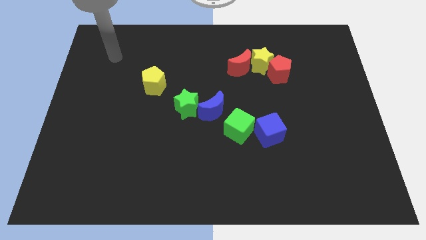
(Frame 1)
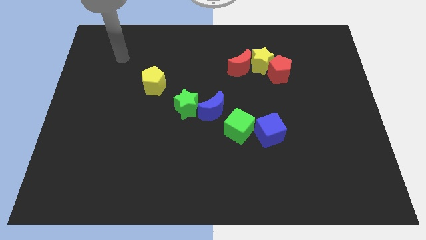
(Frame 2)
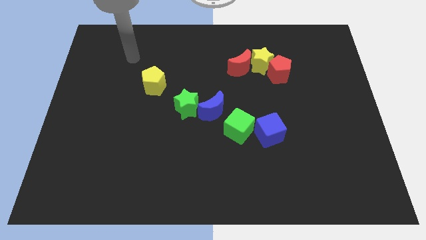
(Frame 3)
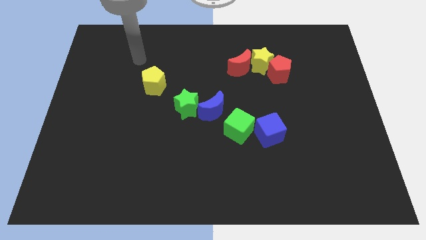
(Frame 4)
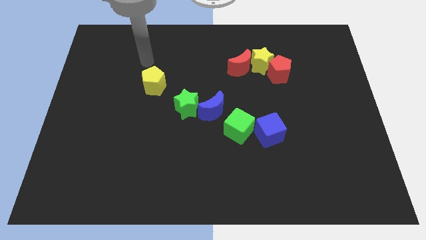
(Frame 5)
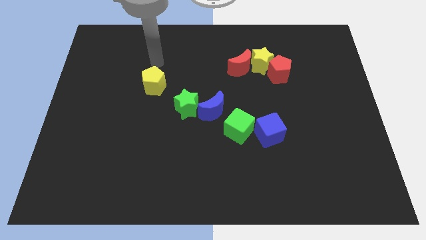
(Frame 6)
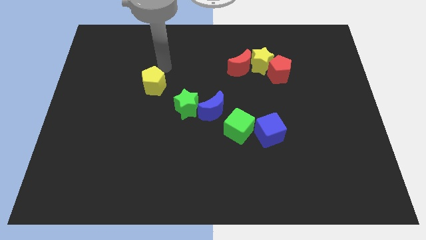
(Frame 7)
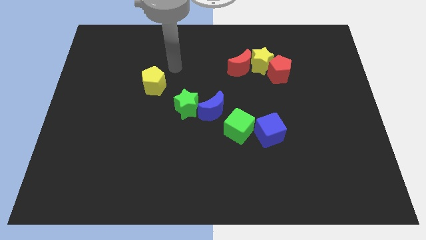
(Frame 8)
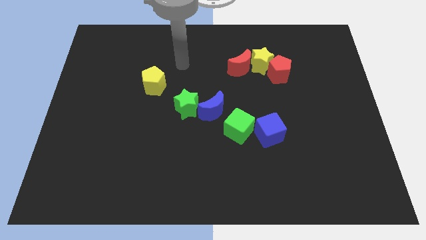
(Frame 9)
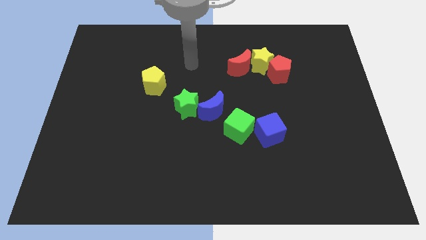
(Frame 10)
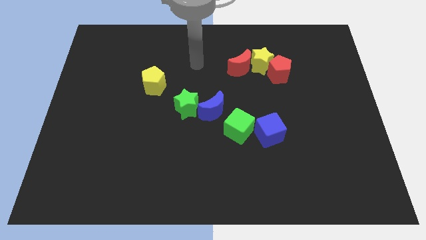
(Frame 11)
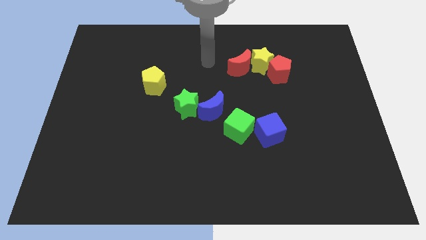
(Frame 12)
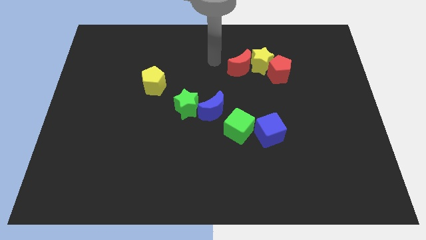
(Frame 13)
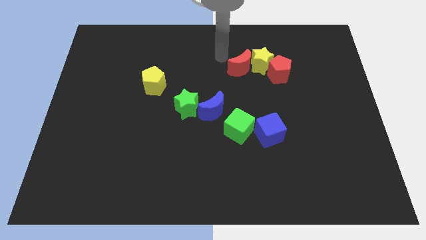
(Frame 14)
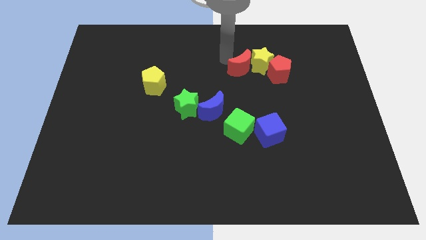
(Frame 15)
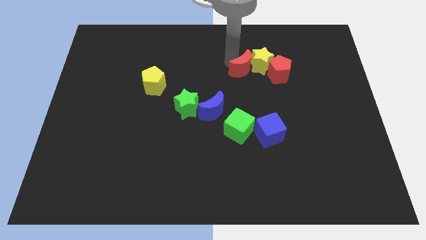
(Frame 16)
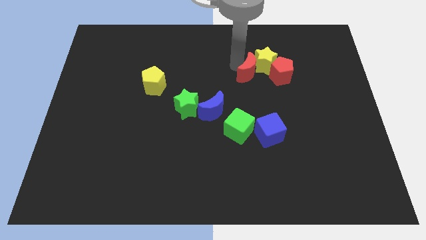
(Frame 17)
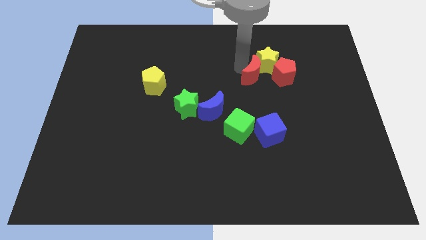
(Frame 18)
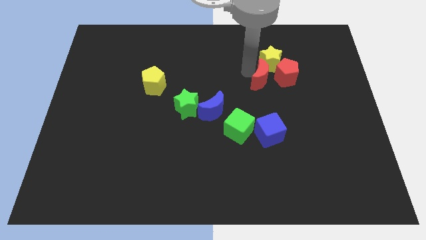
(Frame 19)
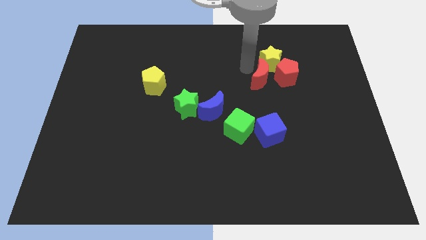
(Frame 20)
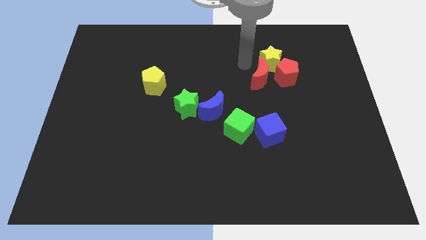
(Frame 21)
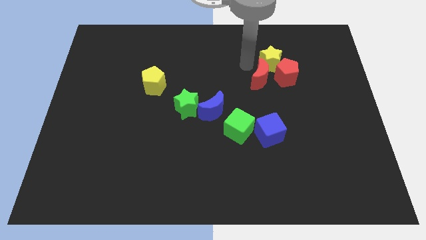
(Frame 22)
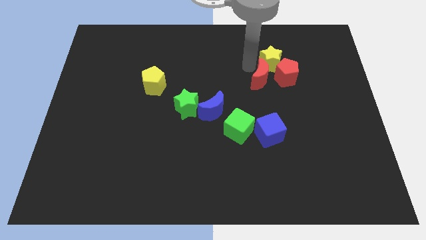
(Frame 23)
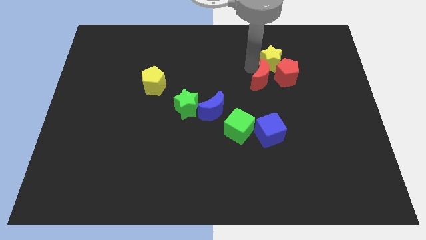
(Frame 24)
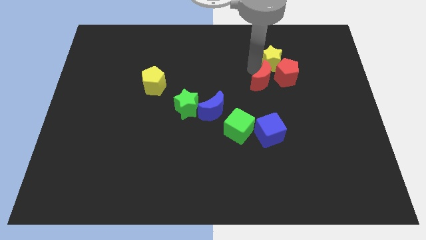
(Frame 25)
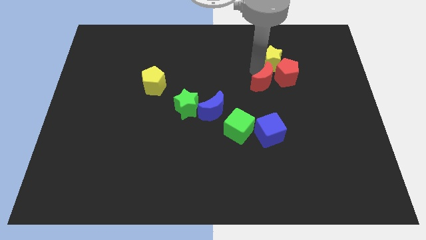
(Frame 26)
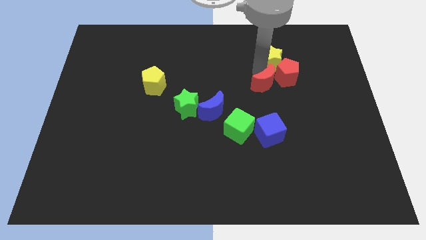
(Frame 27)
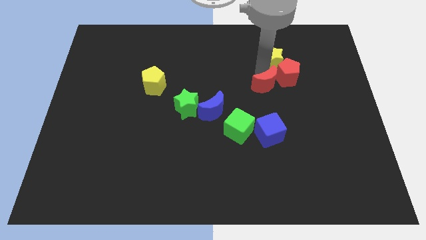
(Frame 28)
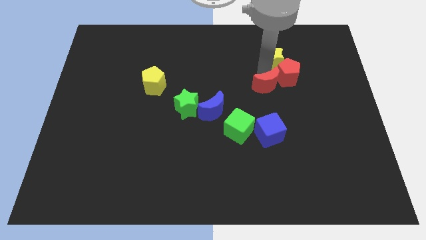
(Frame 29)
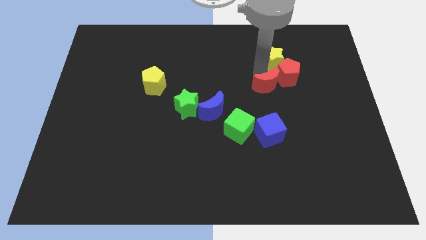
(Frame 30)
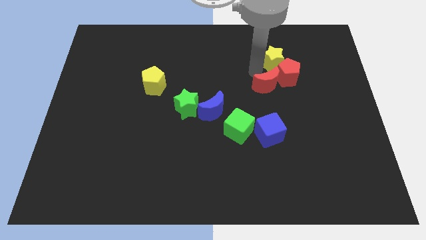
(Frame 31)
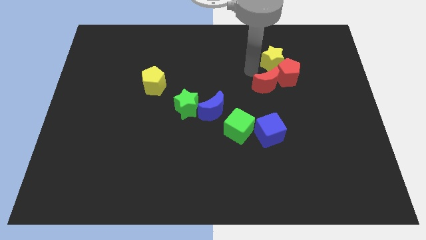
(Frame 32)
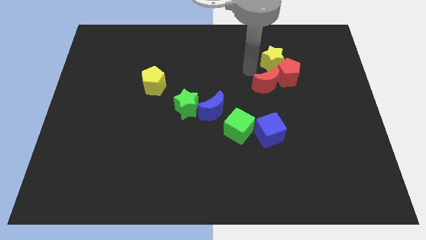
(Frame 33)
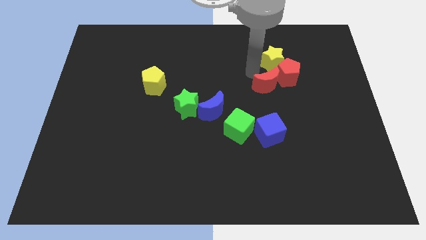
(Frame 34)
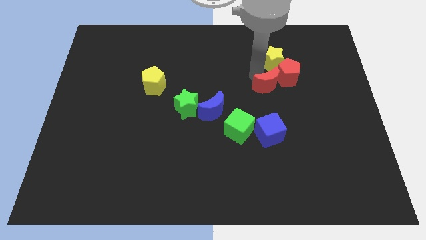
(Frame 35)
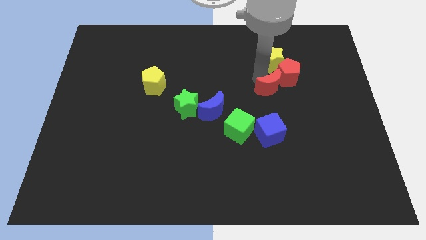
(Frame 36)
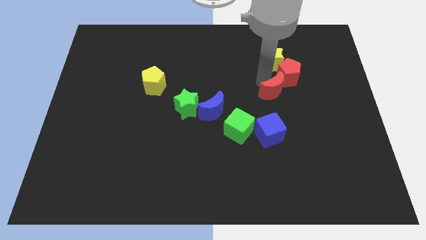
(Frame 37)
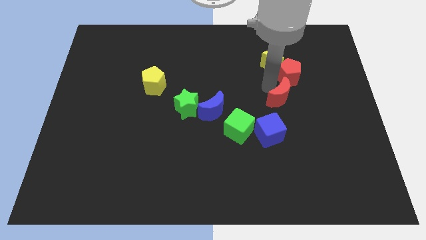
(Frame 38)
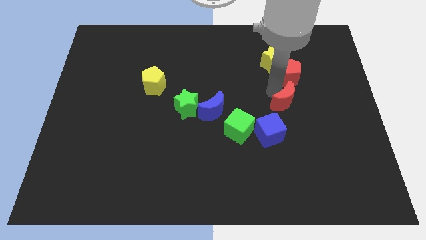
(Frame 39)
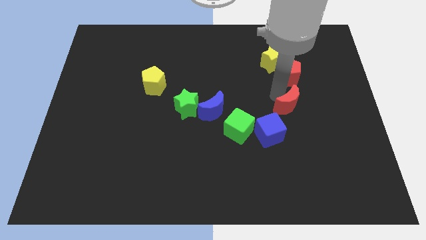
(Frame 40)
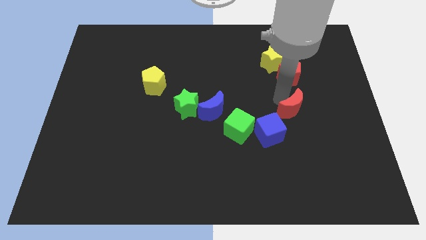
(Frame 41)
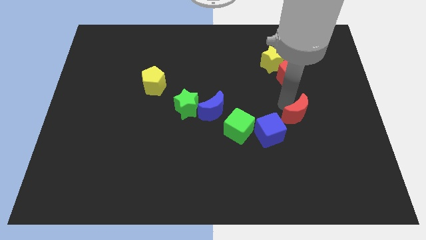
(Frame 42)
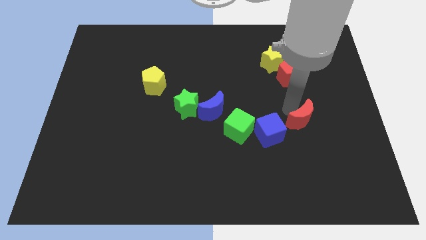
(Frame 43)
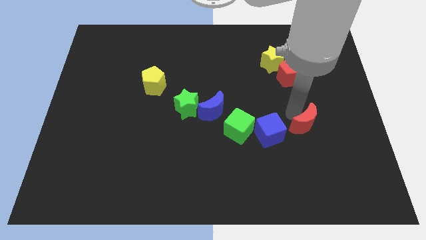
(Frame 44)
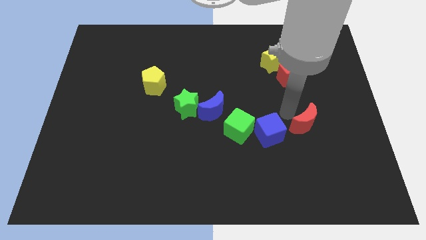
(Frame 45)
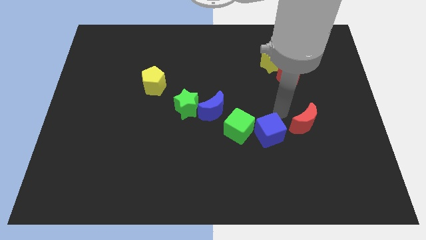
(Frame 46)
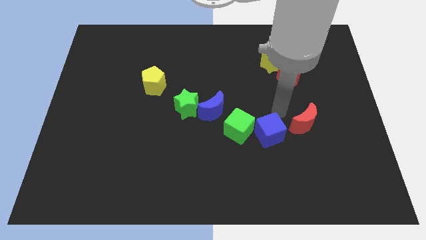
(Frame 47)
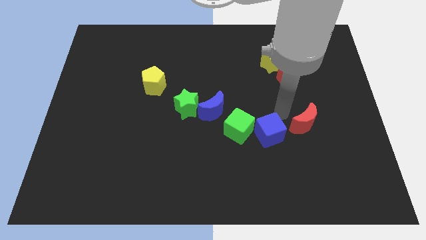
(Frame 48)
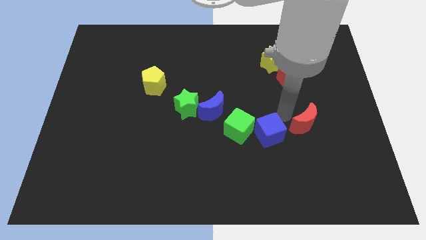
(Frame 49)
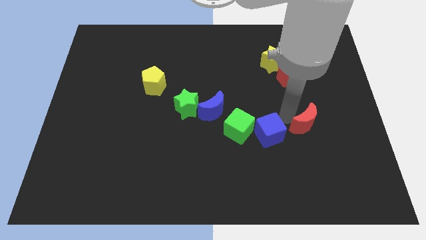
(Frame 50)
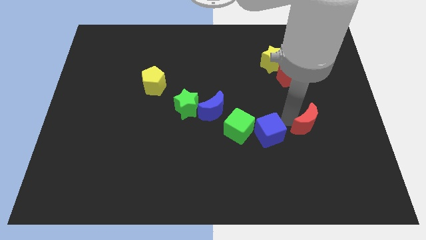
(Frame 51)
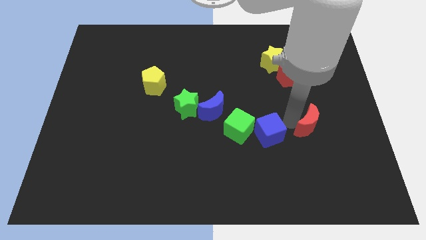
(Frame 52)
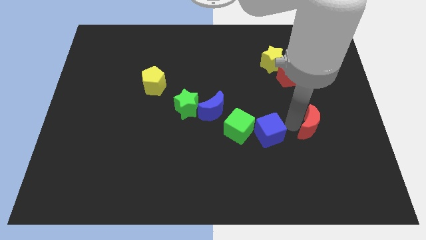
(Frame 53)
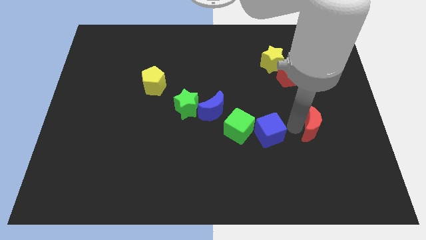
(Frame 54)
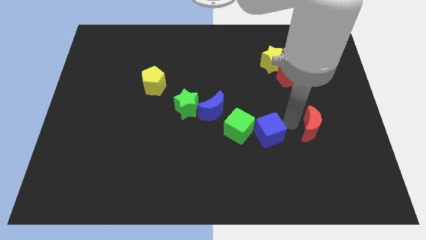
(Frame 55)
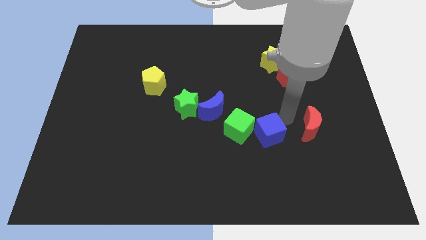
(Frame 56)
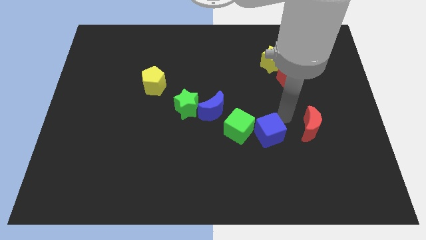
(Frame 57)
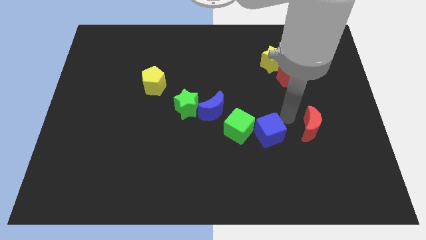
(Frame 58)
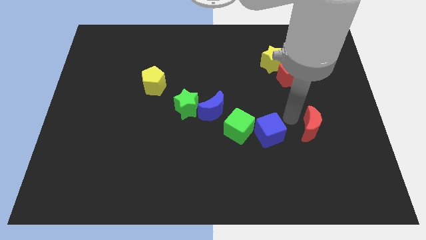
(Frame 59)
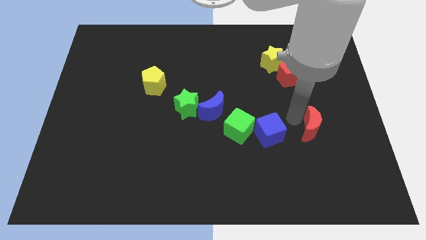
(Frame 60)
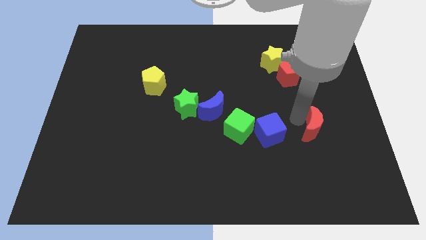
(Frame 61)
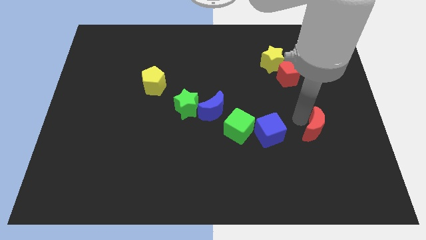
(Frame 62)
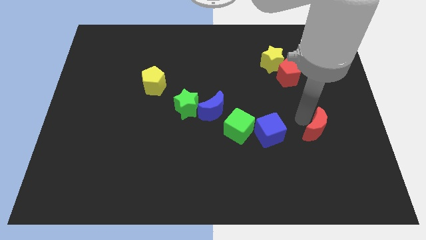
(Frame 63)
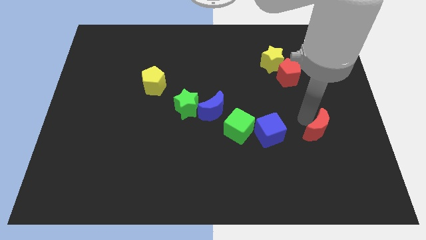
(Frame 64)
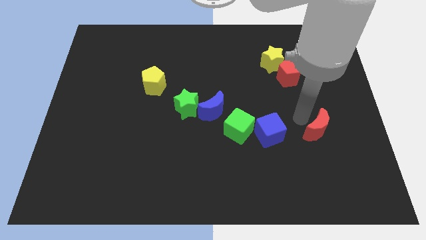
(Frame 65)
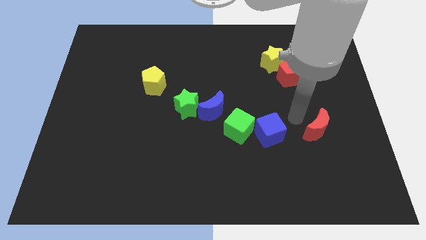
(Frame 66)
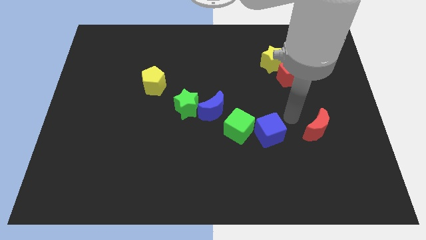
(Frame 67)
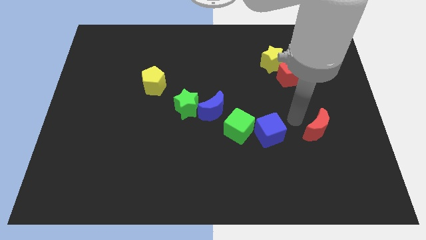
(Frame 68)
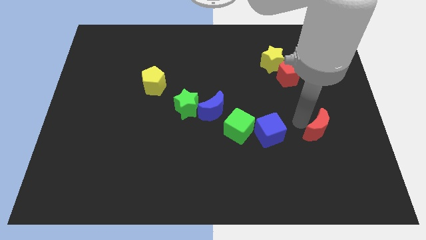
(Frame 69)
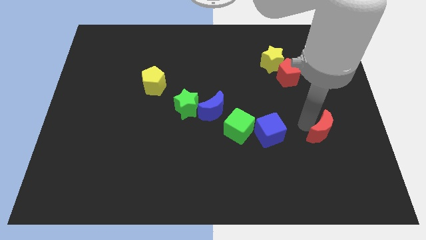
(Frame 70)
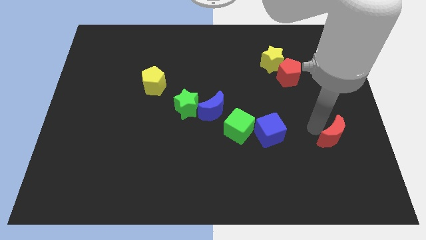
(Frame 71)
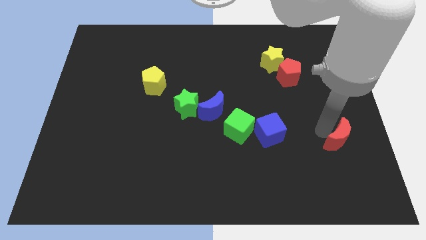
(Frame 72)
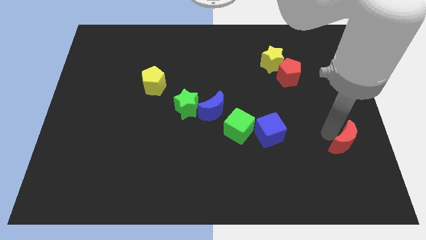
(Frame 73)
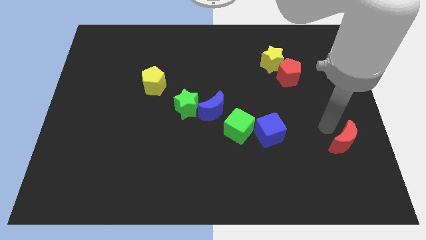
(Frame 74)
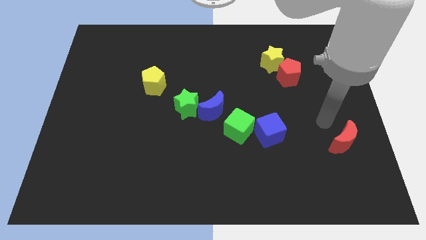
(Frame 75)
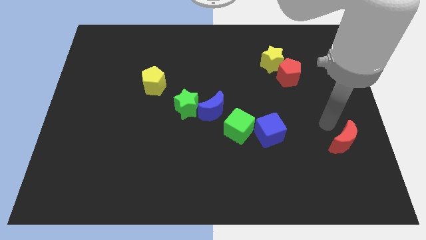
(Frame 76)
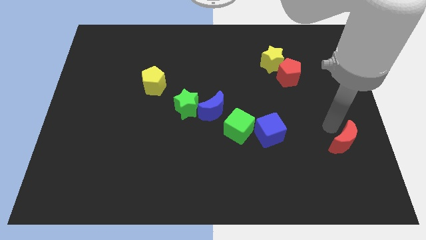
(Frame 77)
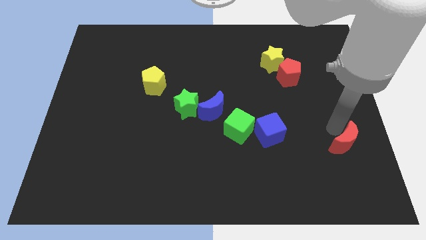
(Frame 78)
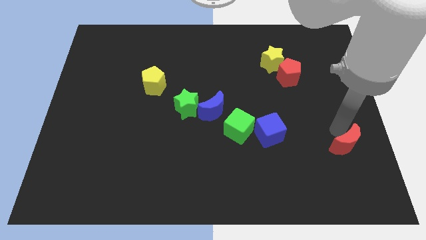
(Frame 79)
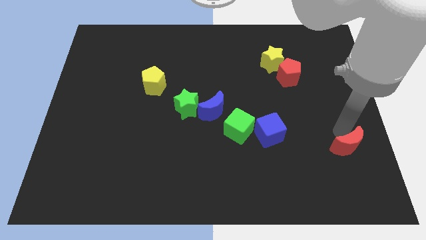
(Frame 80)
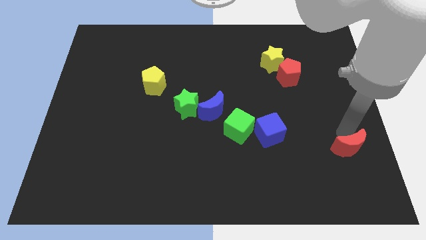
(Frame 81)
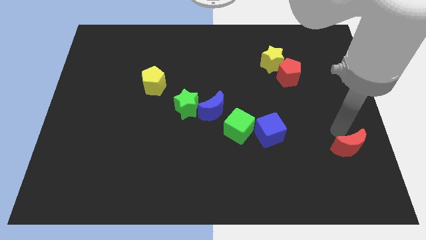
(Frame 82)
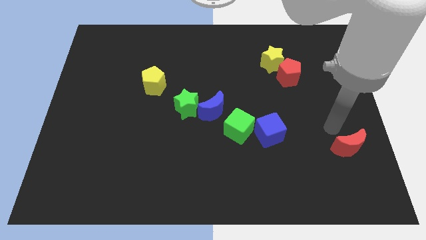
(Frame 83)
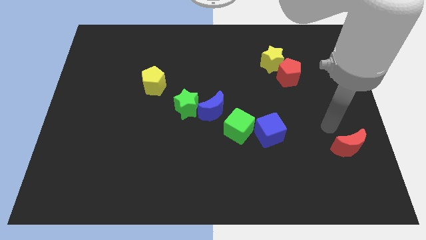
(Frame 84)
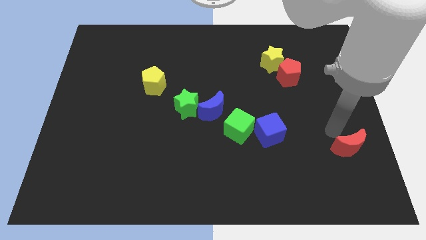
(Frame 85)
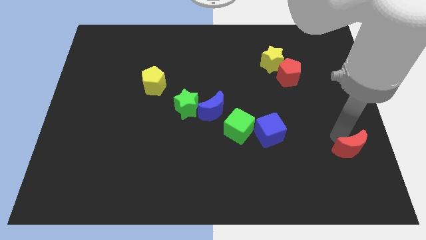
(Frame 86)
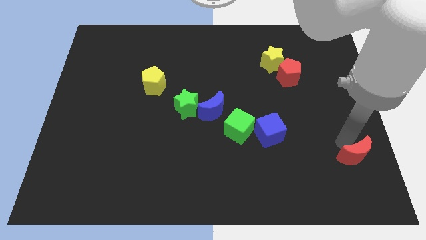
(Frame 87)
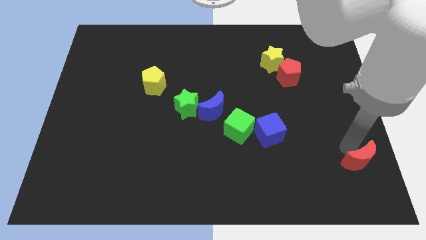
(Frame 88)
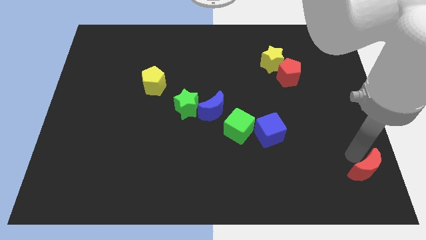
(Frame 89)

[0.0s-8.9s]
push the red moon to the bottom right
